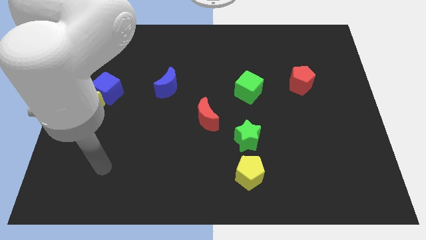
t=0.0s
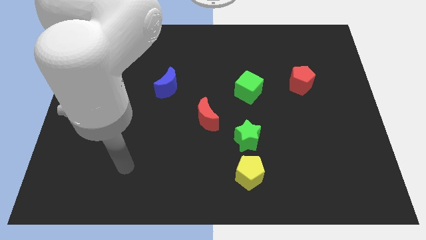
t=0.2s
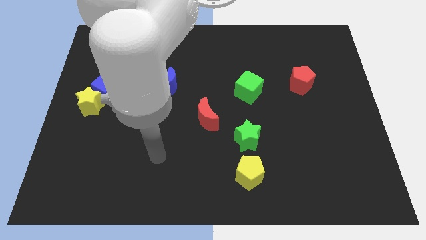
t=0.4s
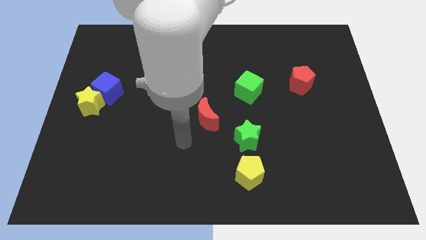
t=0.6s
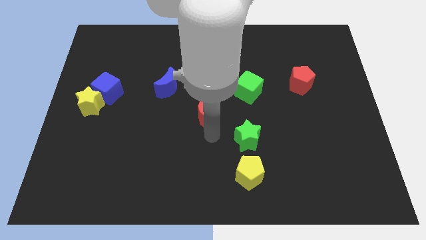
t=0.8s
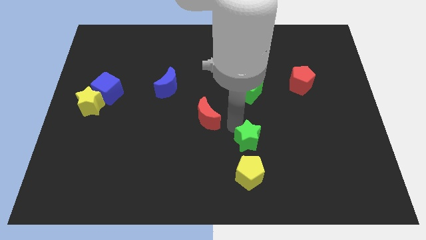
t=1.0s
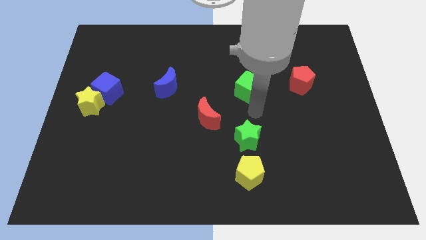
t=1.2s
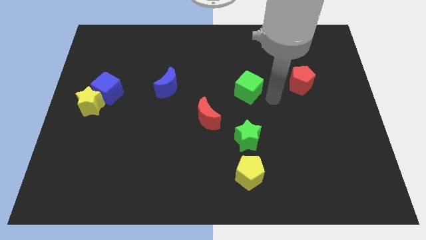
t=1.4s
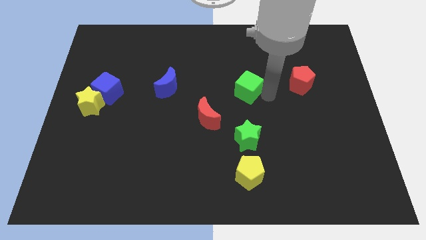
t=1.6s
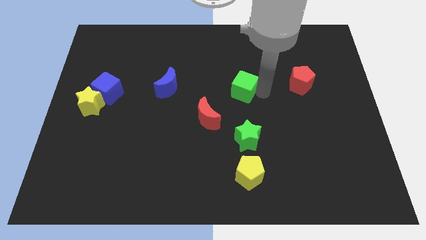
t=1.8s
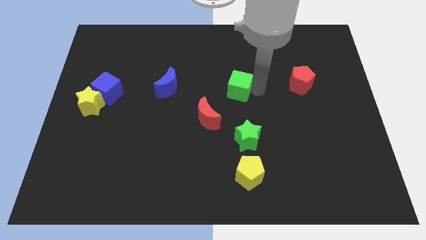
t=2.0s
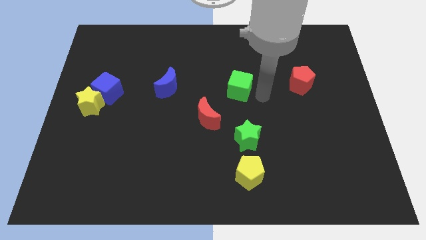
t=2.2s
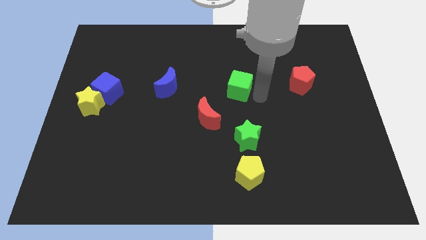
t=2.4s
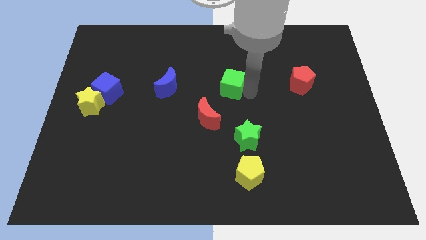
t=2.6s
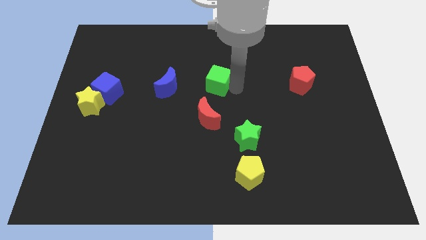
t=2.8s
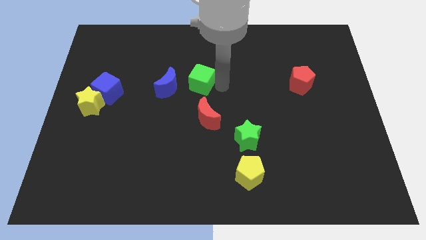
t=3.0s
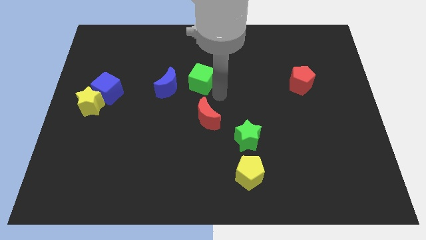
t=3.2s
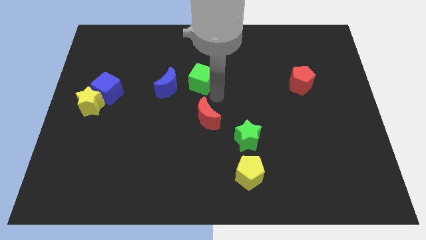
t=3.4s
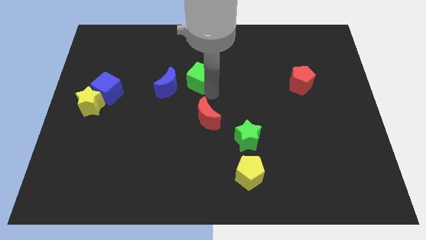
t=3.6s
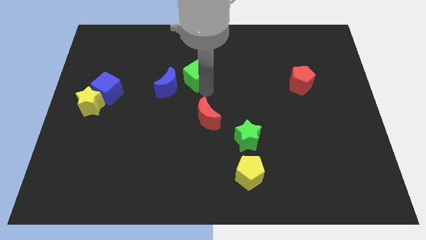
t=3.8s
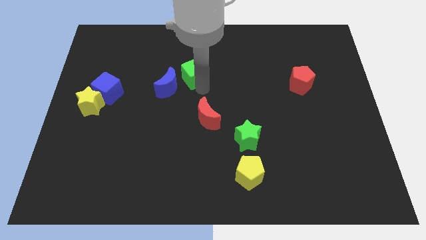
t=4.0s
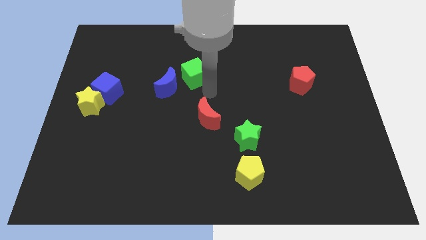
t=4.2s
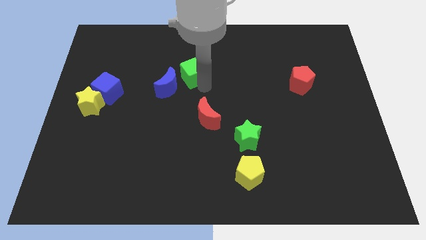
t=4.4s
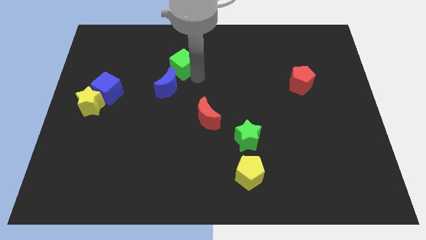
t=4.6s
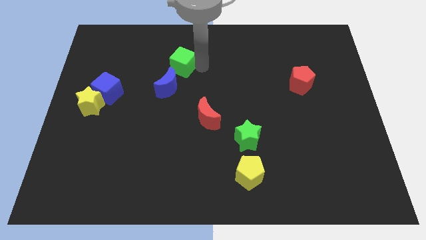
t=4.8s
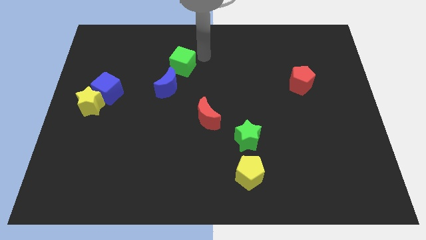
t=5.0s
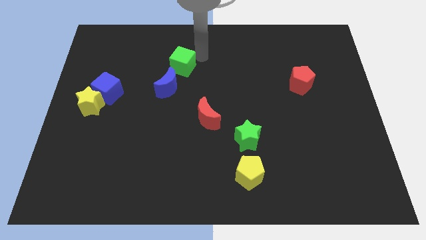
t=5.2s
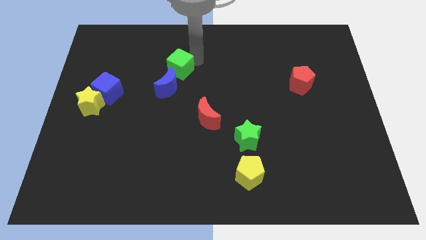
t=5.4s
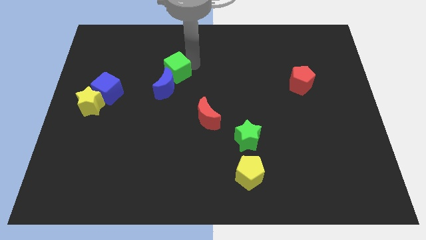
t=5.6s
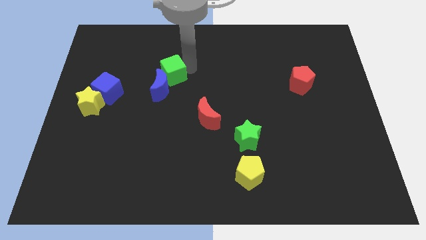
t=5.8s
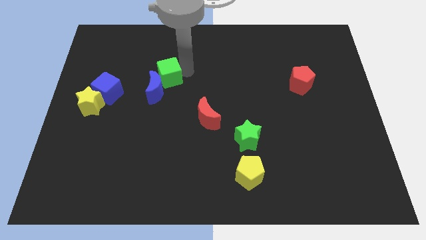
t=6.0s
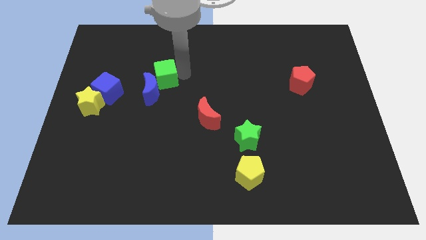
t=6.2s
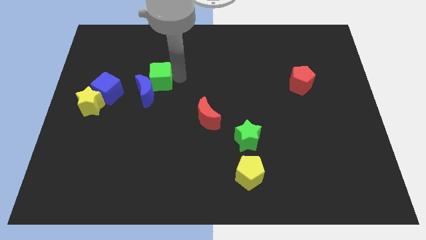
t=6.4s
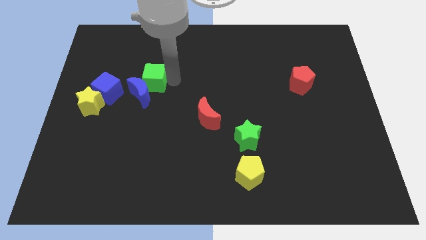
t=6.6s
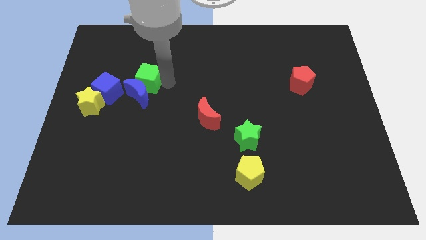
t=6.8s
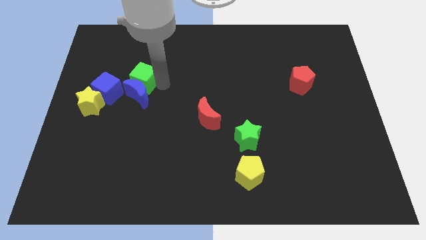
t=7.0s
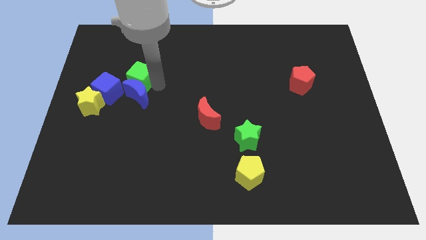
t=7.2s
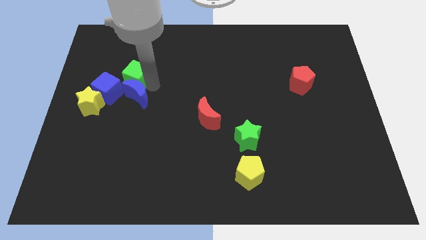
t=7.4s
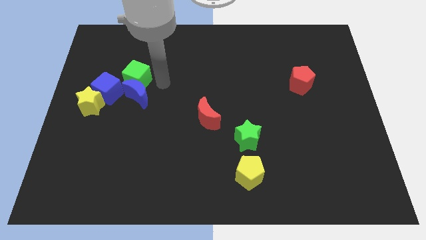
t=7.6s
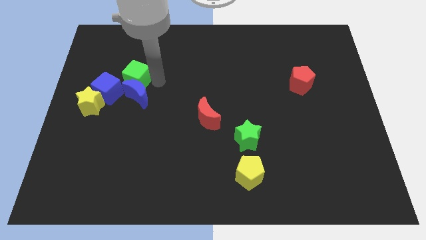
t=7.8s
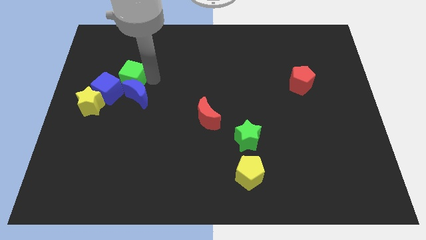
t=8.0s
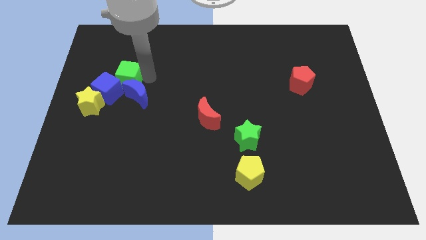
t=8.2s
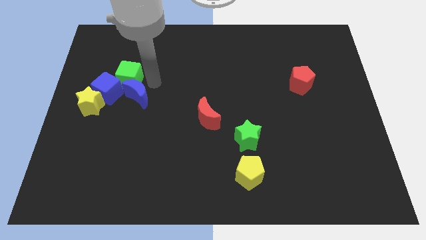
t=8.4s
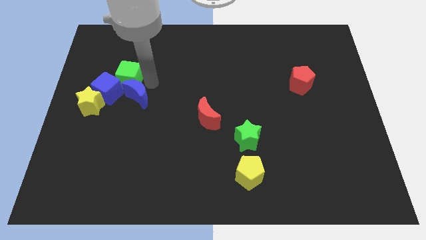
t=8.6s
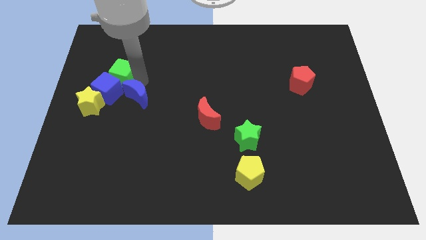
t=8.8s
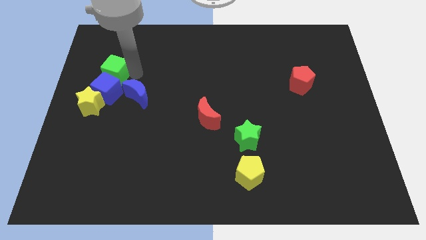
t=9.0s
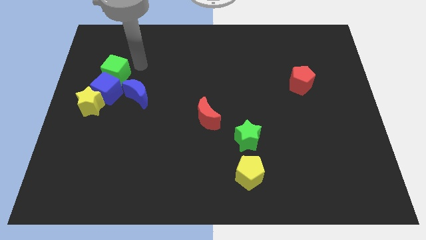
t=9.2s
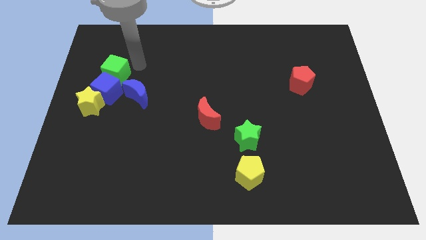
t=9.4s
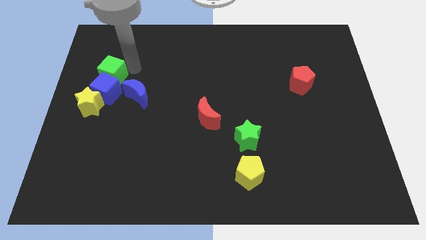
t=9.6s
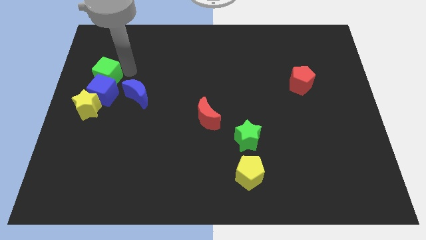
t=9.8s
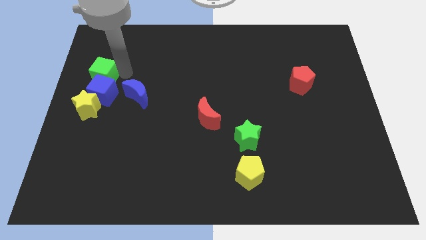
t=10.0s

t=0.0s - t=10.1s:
move the green cube to the left side of the board
